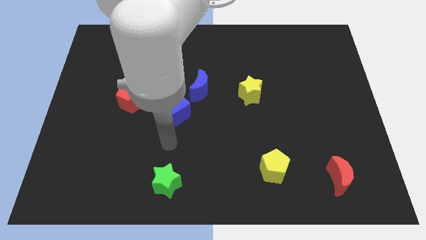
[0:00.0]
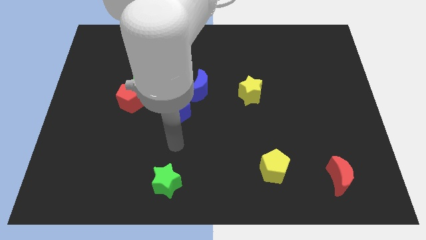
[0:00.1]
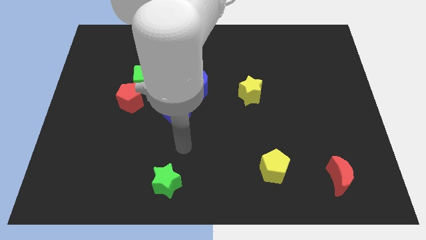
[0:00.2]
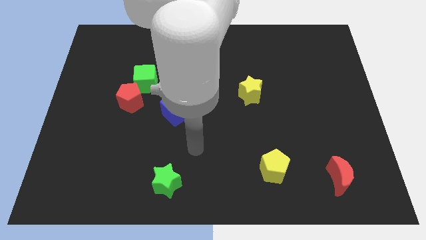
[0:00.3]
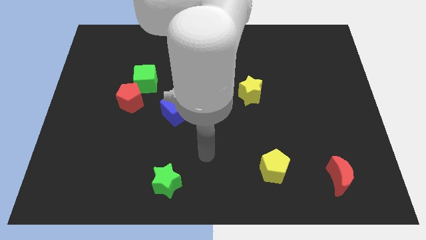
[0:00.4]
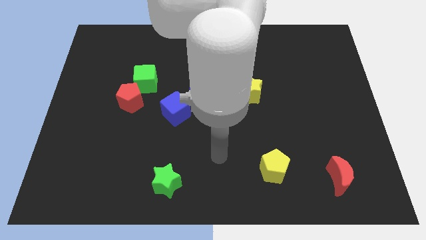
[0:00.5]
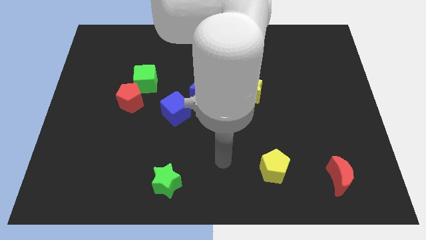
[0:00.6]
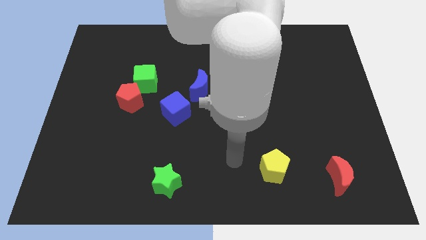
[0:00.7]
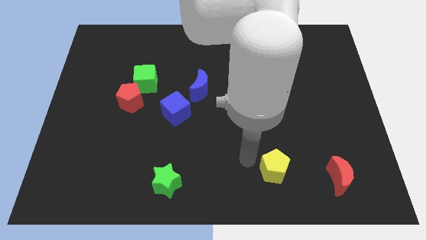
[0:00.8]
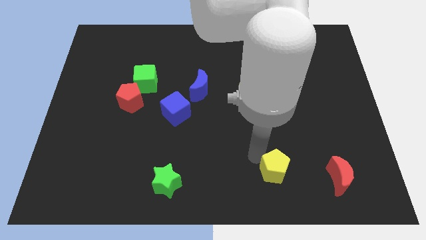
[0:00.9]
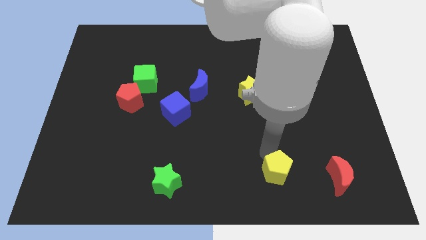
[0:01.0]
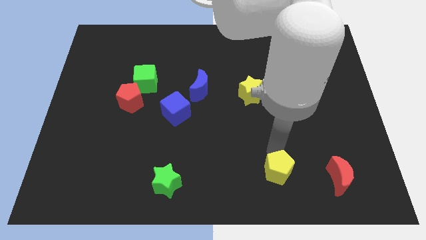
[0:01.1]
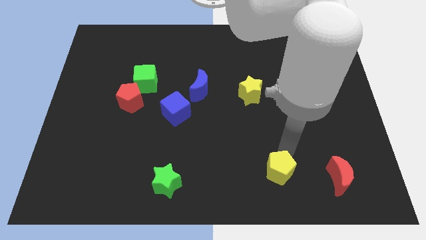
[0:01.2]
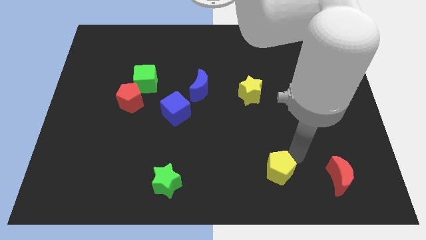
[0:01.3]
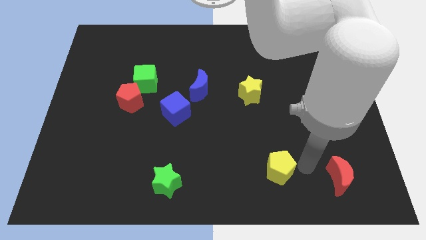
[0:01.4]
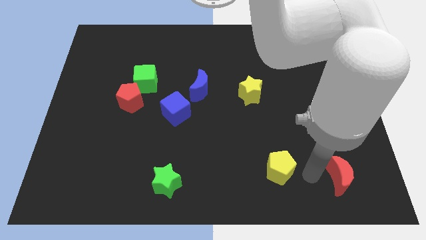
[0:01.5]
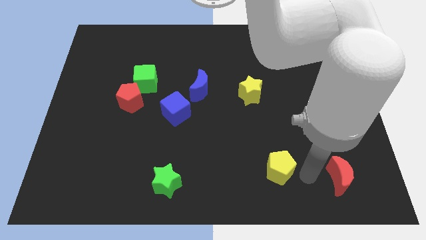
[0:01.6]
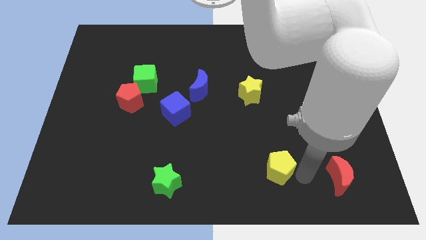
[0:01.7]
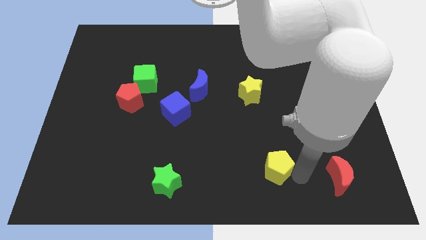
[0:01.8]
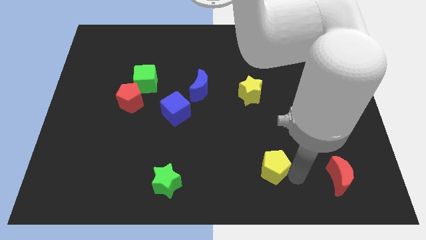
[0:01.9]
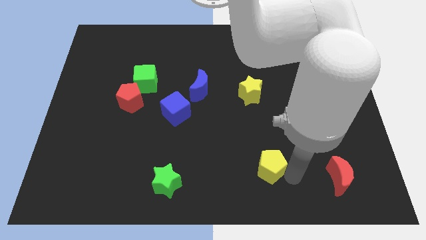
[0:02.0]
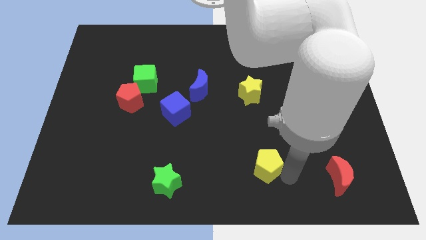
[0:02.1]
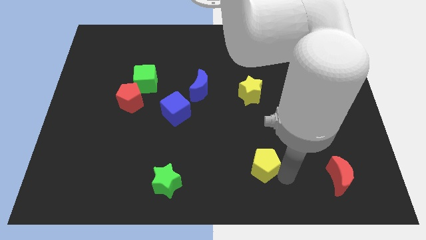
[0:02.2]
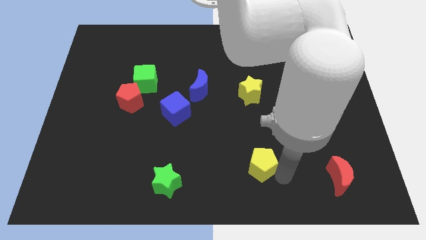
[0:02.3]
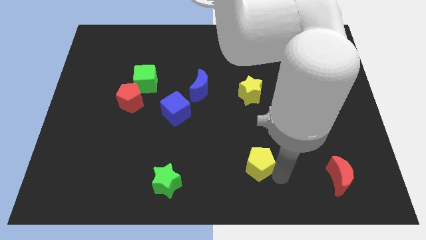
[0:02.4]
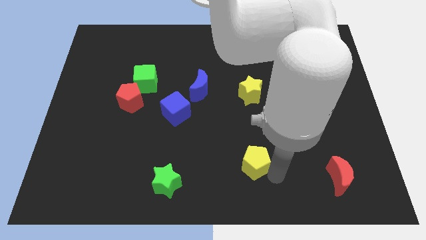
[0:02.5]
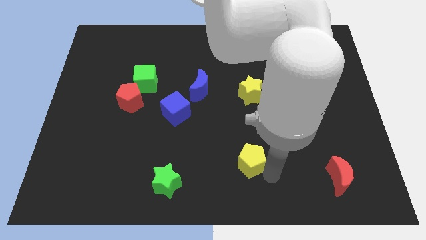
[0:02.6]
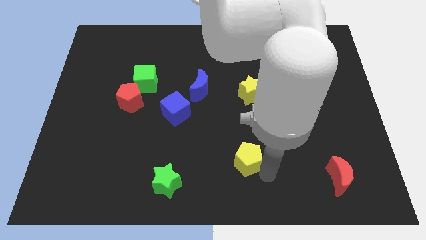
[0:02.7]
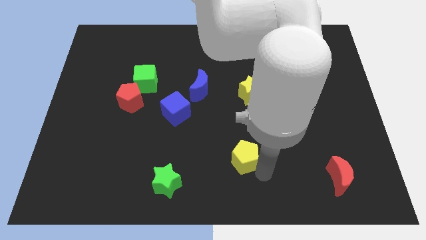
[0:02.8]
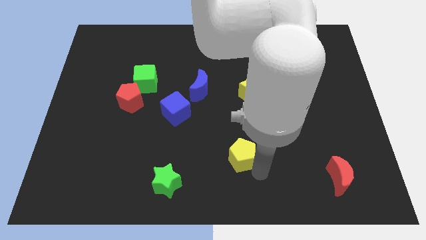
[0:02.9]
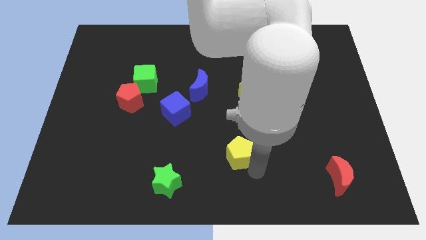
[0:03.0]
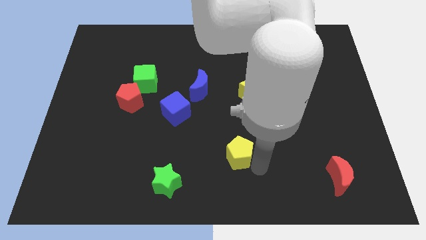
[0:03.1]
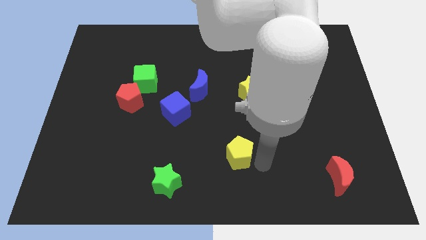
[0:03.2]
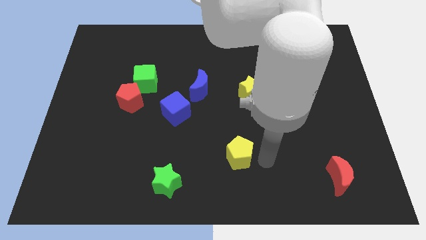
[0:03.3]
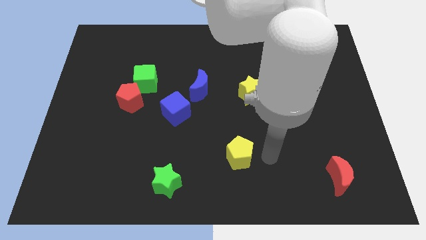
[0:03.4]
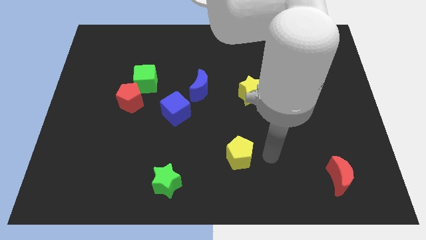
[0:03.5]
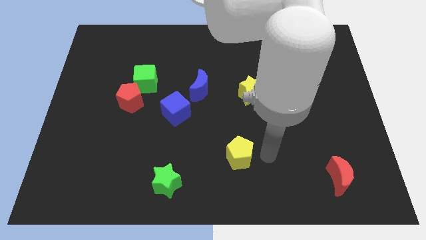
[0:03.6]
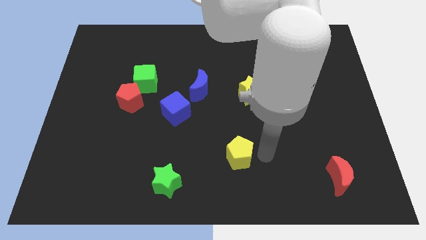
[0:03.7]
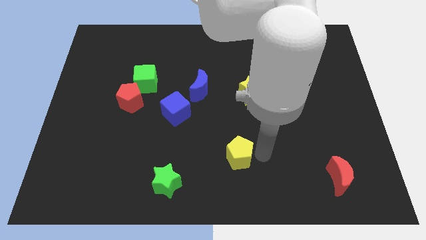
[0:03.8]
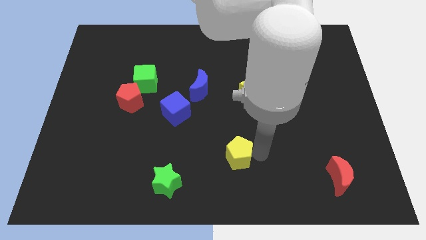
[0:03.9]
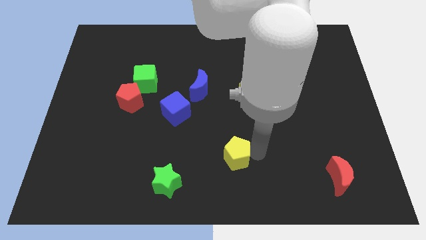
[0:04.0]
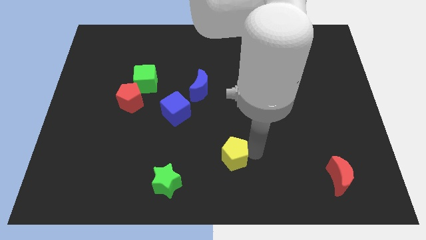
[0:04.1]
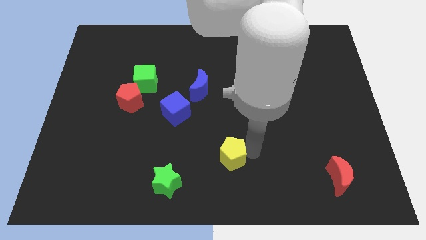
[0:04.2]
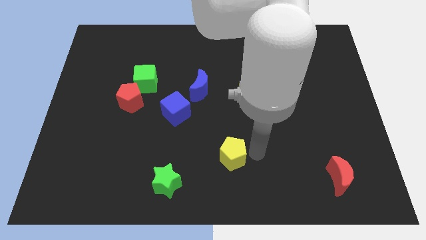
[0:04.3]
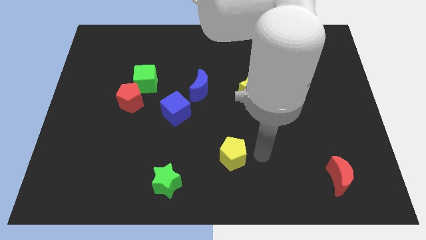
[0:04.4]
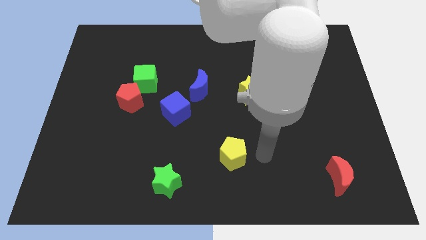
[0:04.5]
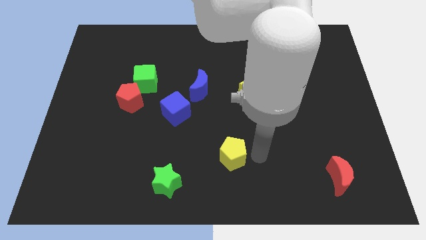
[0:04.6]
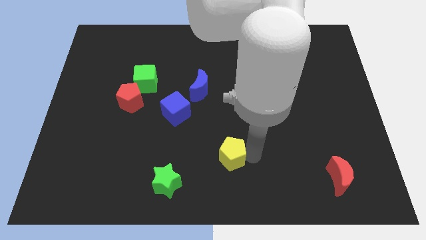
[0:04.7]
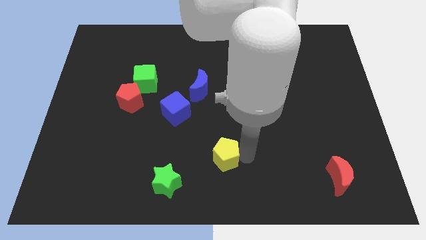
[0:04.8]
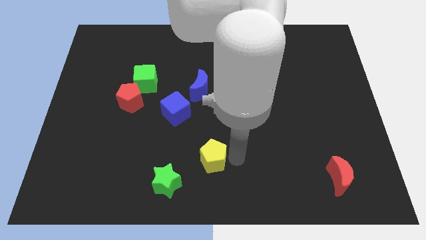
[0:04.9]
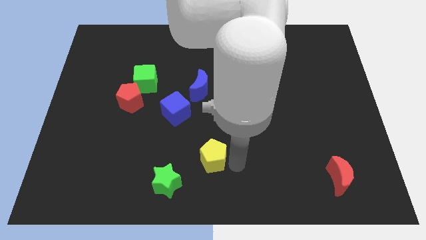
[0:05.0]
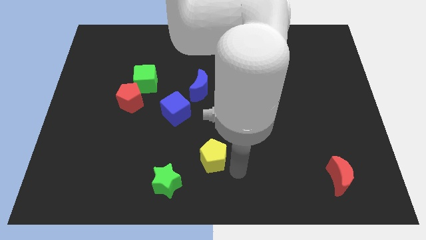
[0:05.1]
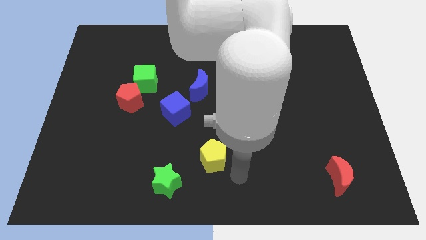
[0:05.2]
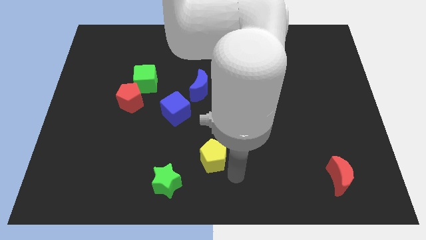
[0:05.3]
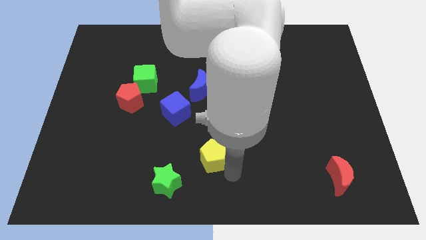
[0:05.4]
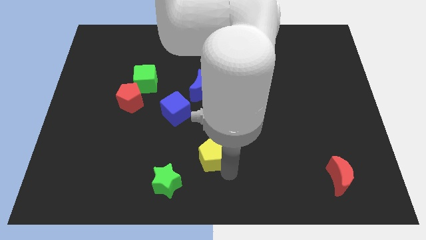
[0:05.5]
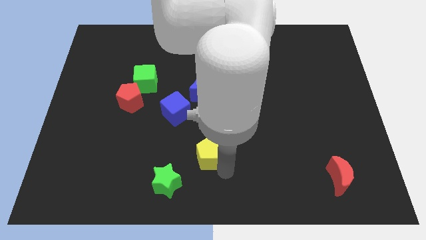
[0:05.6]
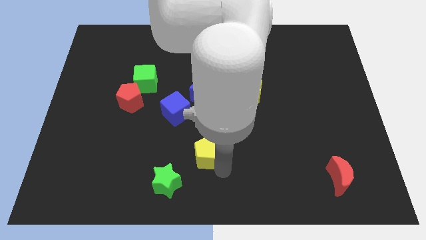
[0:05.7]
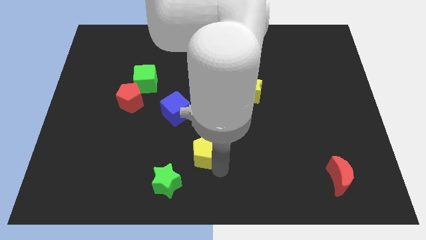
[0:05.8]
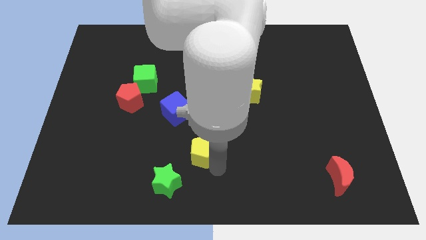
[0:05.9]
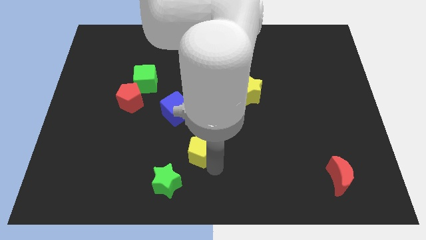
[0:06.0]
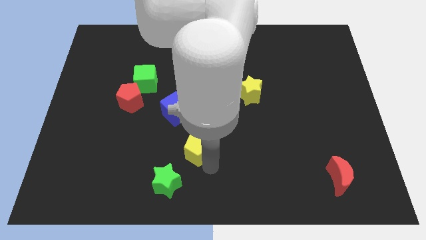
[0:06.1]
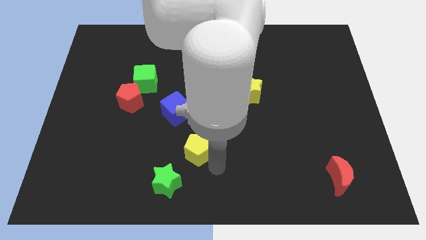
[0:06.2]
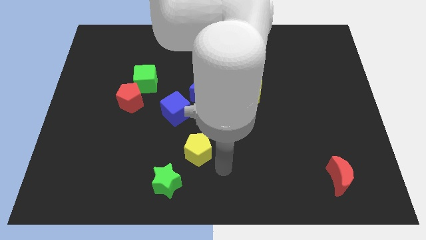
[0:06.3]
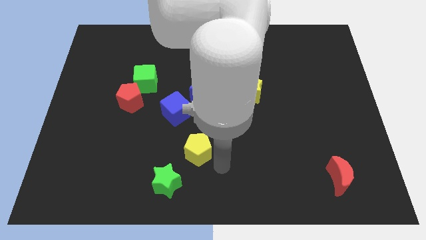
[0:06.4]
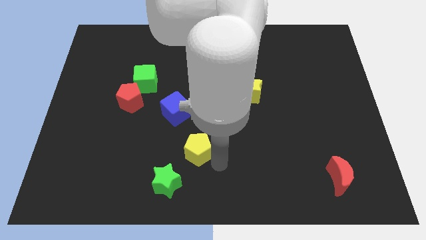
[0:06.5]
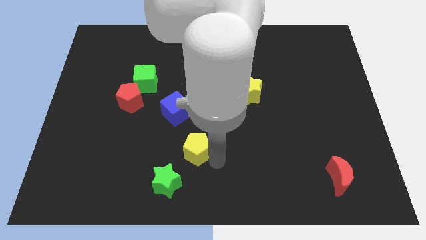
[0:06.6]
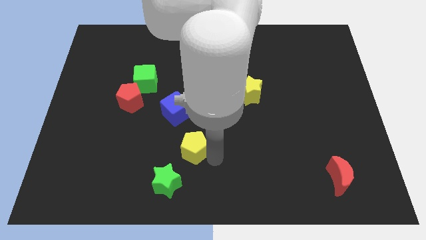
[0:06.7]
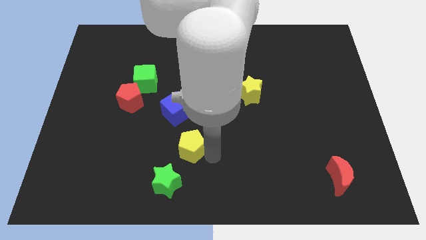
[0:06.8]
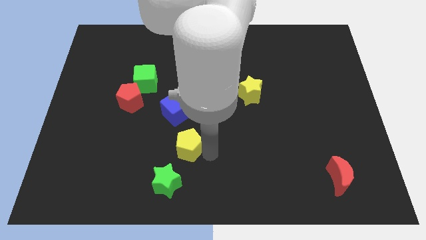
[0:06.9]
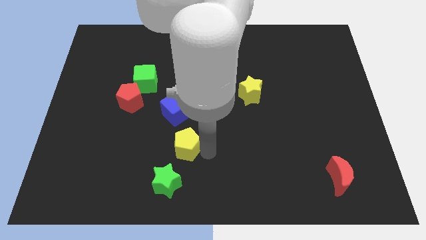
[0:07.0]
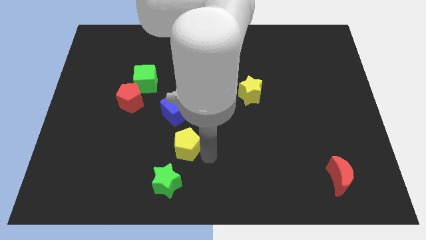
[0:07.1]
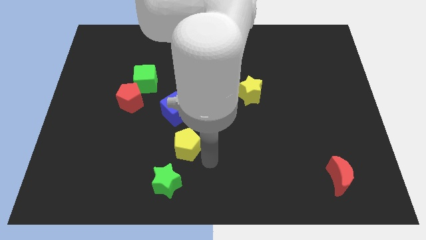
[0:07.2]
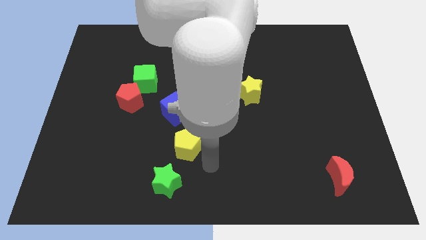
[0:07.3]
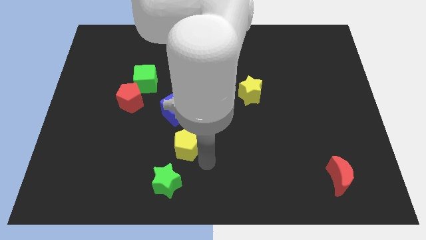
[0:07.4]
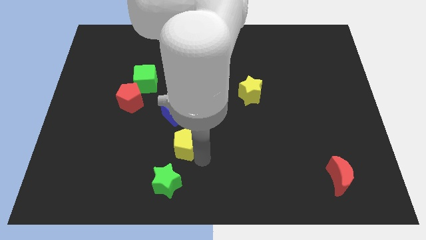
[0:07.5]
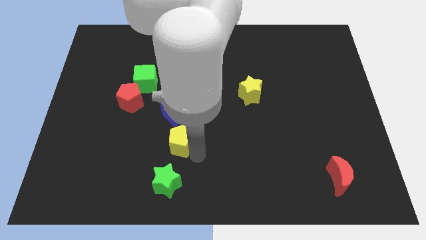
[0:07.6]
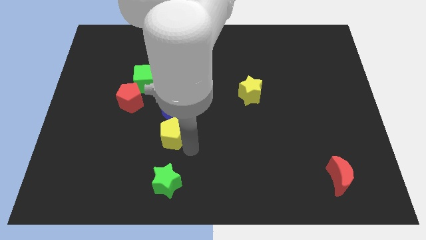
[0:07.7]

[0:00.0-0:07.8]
put the yellow pentagon to the bottom left of the blue cube
